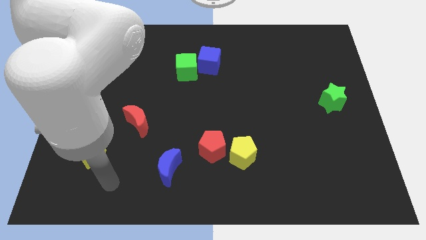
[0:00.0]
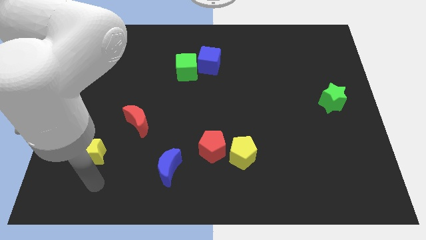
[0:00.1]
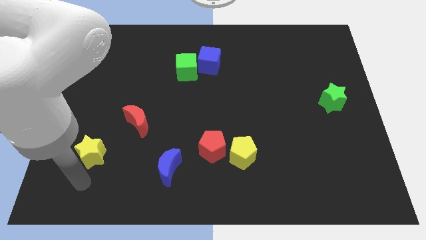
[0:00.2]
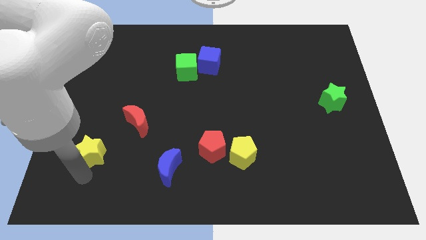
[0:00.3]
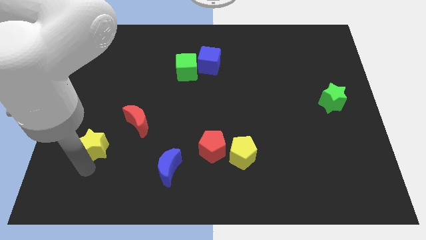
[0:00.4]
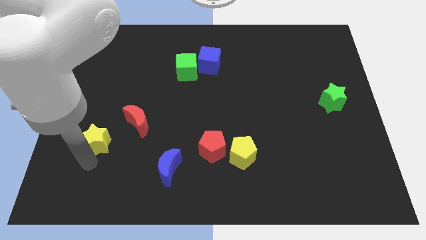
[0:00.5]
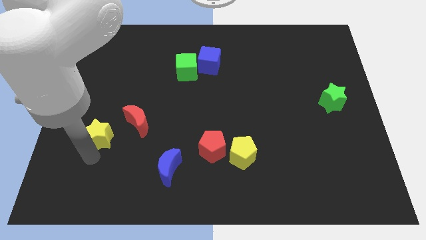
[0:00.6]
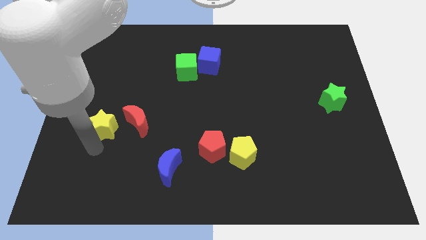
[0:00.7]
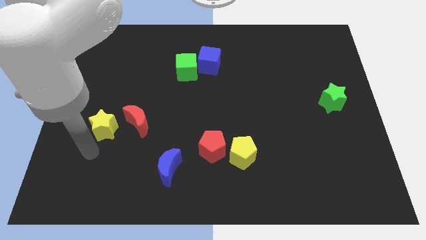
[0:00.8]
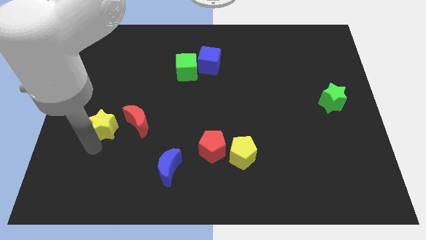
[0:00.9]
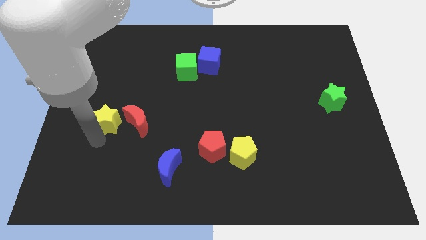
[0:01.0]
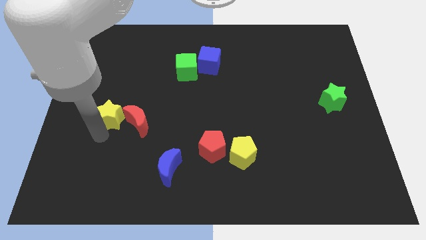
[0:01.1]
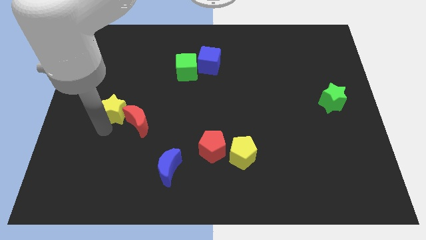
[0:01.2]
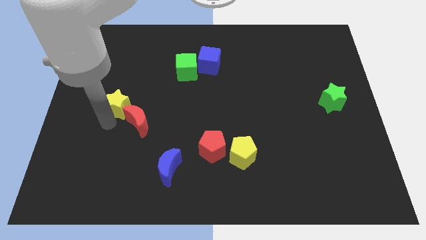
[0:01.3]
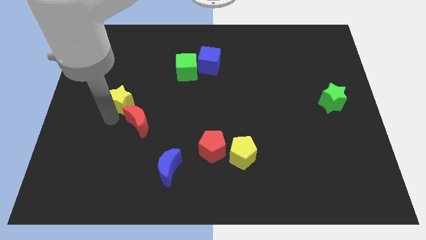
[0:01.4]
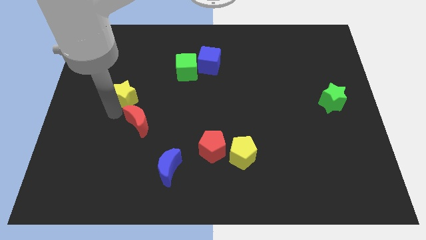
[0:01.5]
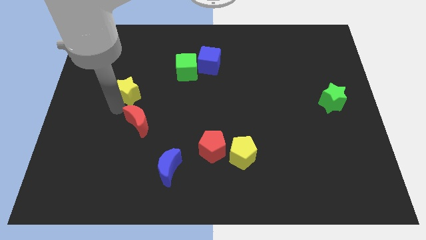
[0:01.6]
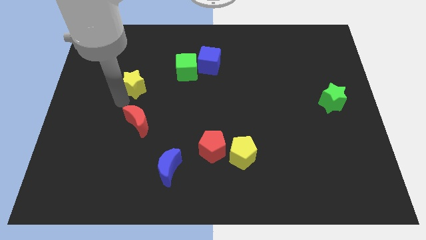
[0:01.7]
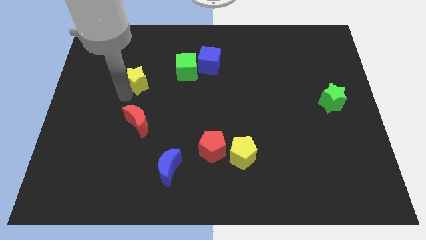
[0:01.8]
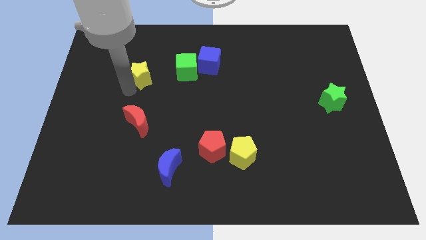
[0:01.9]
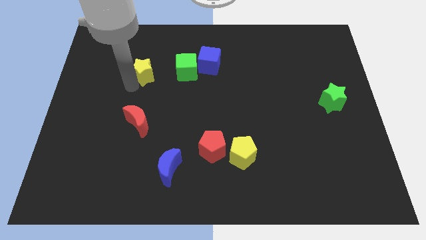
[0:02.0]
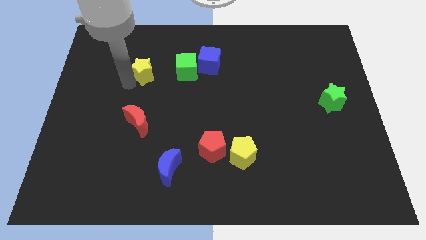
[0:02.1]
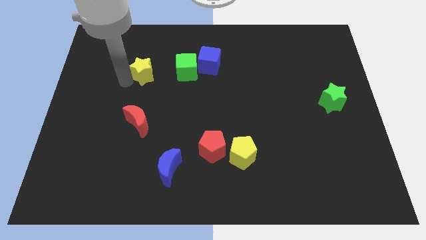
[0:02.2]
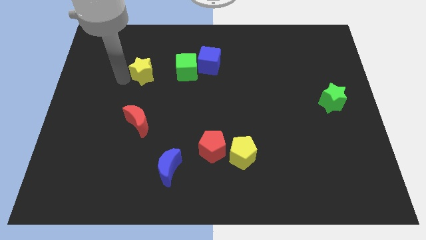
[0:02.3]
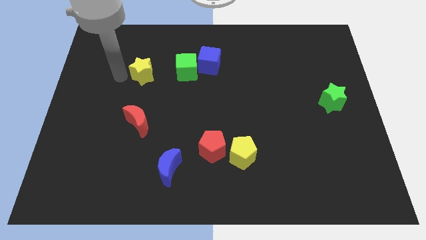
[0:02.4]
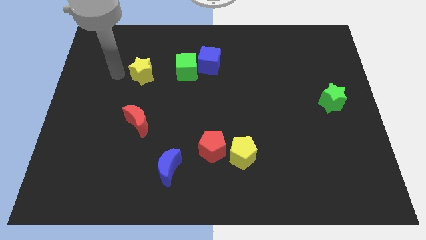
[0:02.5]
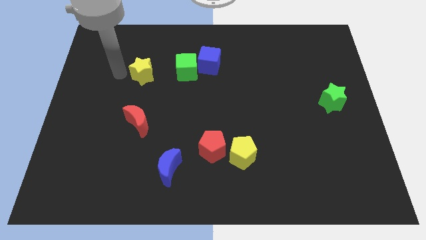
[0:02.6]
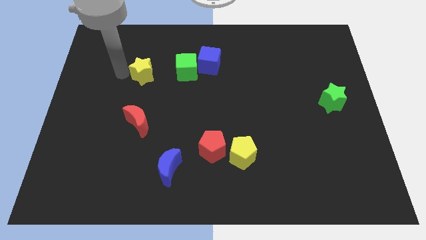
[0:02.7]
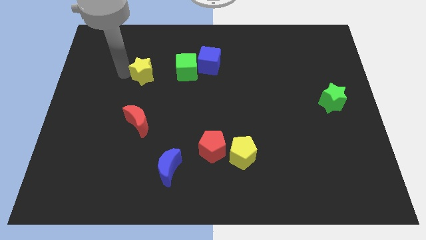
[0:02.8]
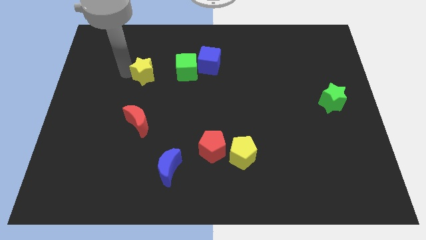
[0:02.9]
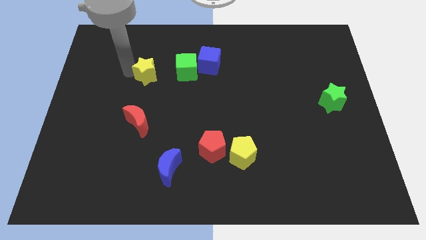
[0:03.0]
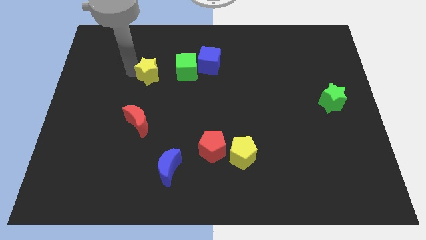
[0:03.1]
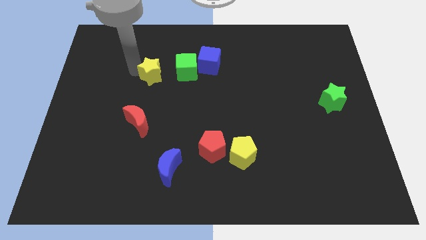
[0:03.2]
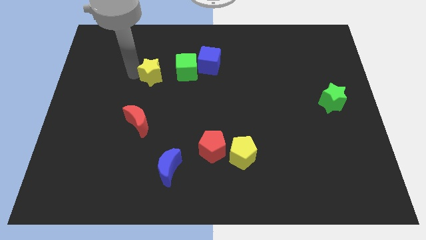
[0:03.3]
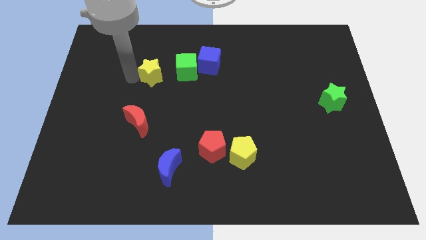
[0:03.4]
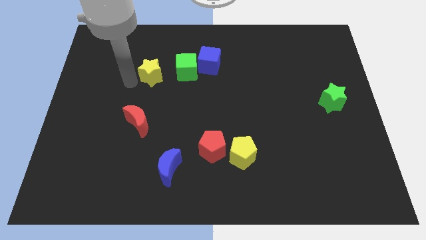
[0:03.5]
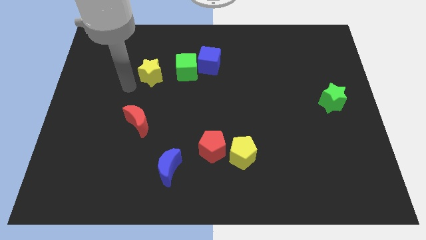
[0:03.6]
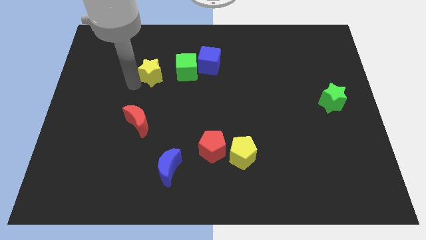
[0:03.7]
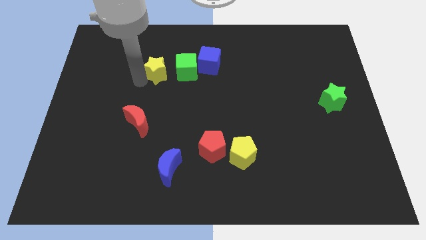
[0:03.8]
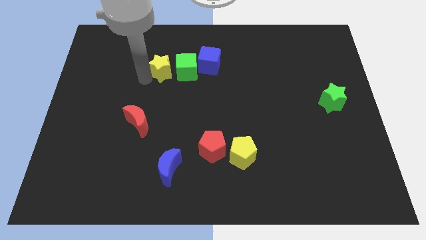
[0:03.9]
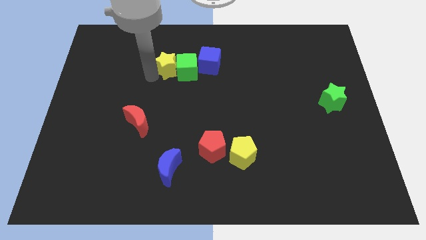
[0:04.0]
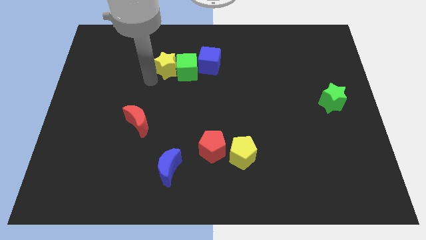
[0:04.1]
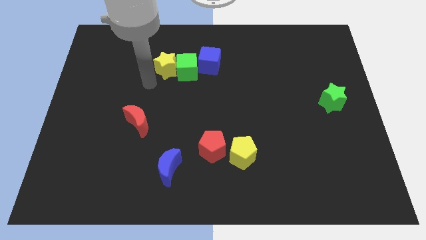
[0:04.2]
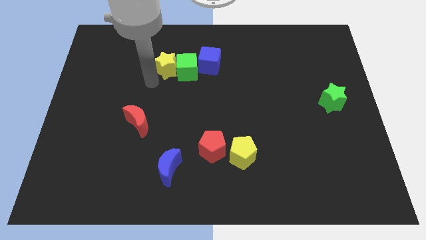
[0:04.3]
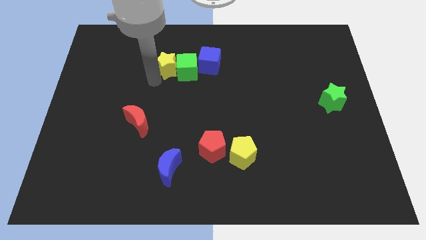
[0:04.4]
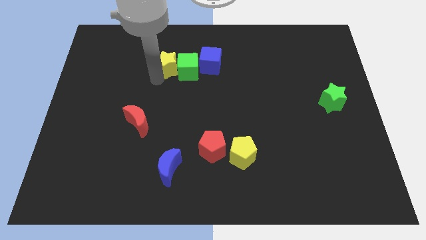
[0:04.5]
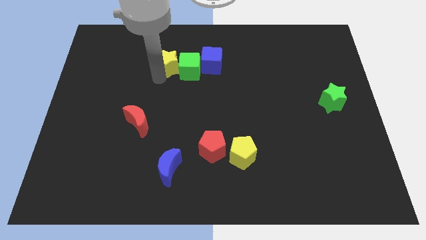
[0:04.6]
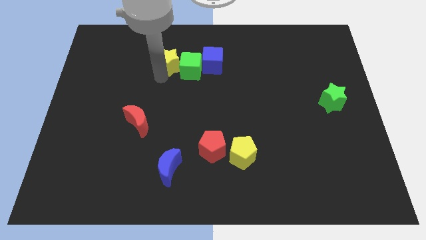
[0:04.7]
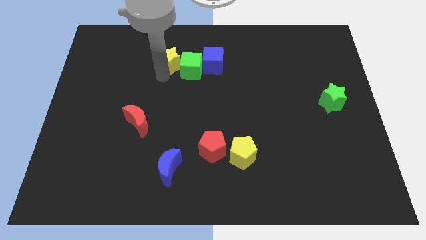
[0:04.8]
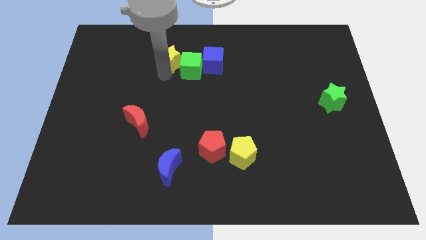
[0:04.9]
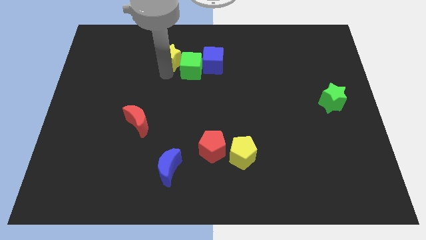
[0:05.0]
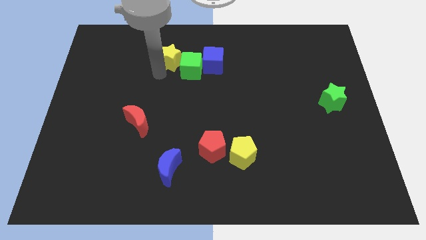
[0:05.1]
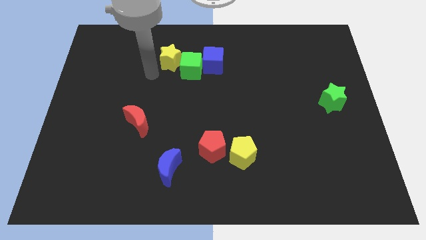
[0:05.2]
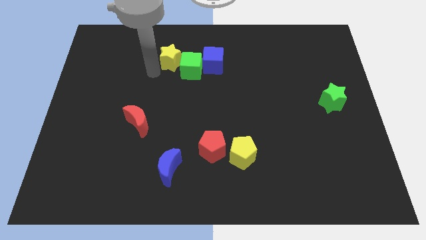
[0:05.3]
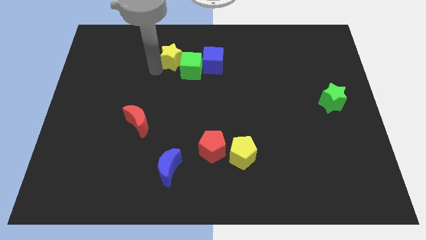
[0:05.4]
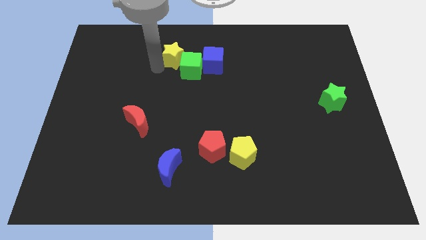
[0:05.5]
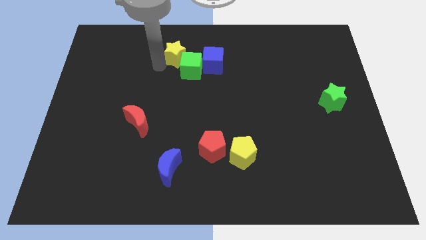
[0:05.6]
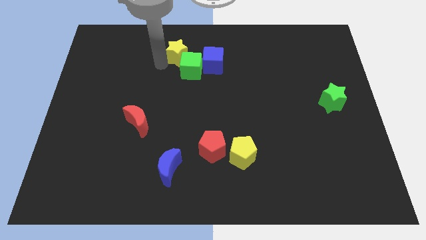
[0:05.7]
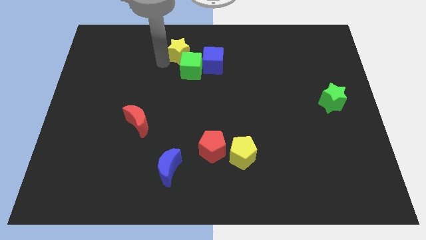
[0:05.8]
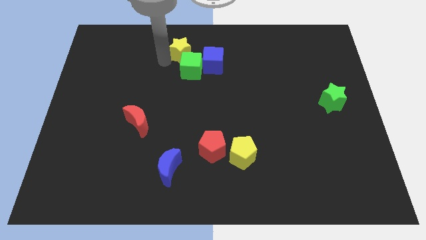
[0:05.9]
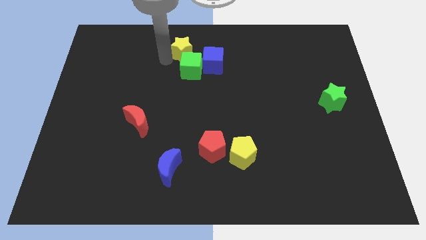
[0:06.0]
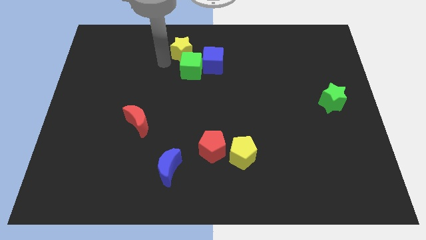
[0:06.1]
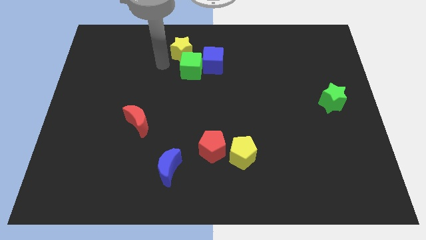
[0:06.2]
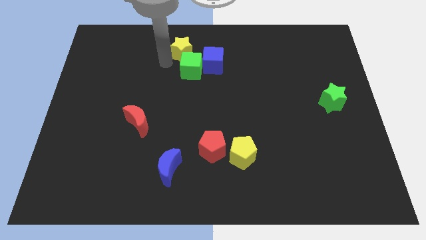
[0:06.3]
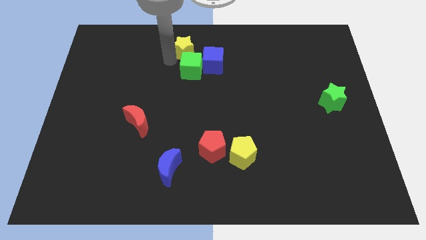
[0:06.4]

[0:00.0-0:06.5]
put the yellow star to the towards your base

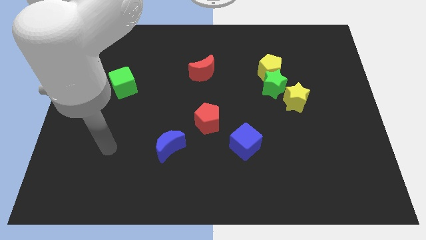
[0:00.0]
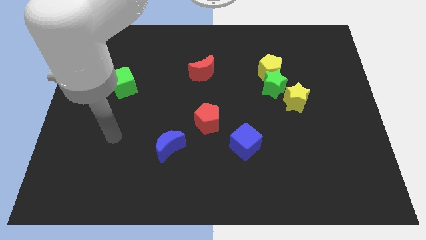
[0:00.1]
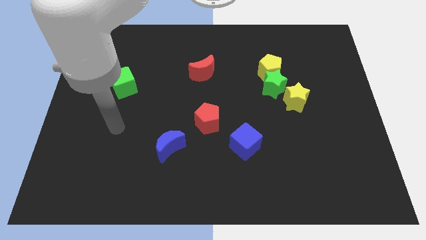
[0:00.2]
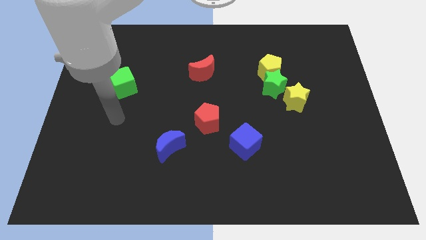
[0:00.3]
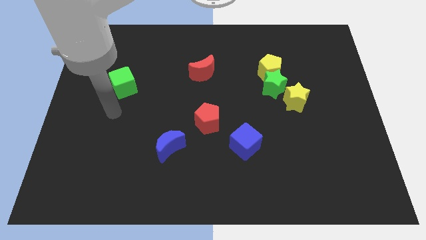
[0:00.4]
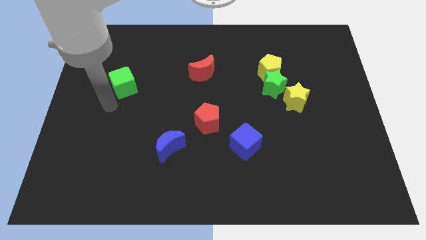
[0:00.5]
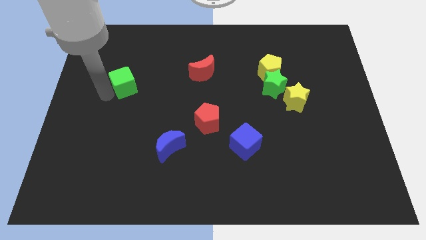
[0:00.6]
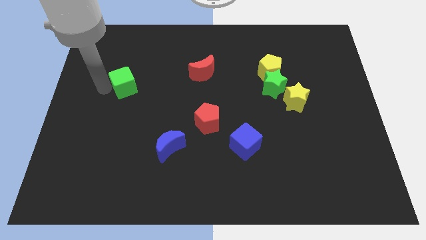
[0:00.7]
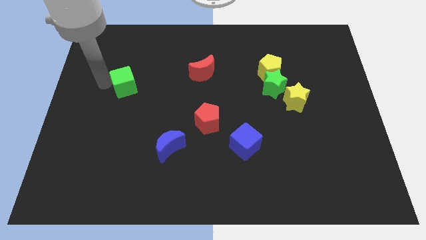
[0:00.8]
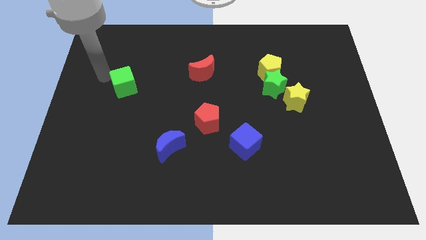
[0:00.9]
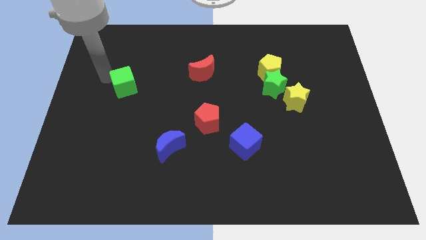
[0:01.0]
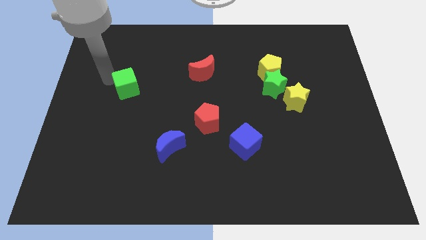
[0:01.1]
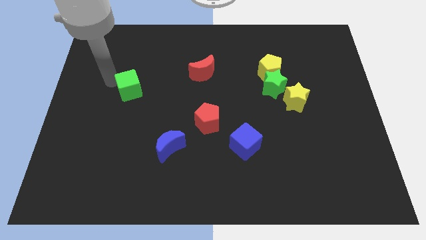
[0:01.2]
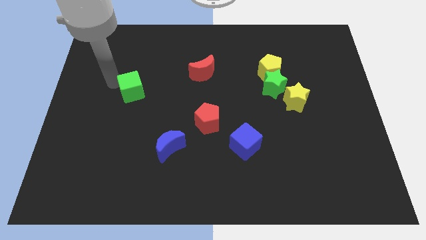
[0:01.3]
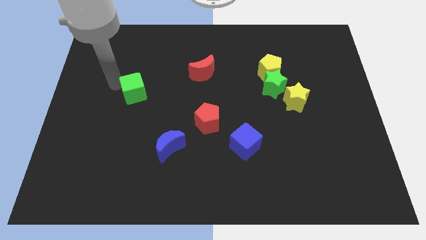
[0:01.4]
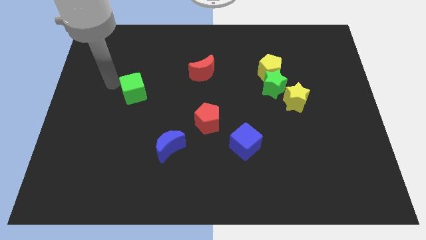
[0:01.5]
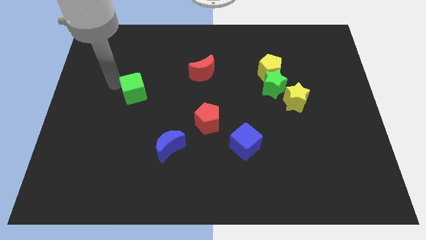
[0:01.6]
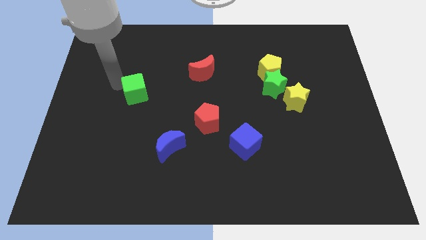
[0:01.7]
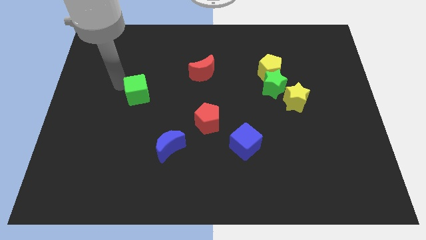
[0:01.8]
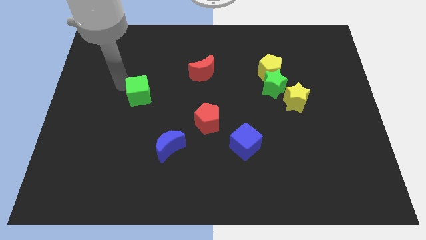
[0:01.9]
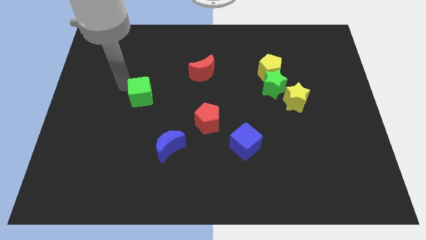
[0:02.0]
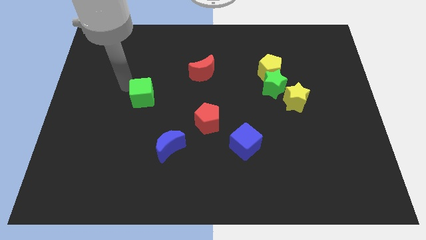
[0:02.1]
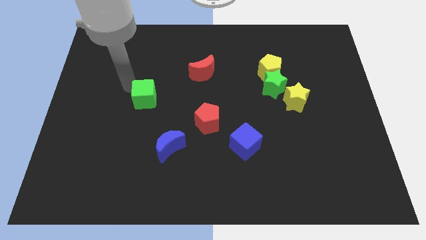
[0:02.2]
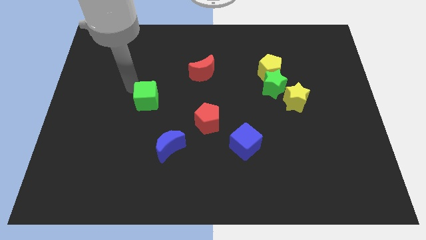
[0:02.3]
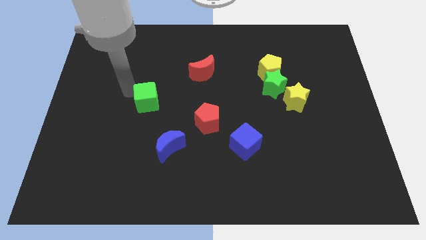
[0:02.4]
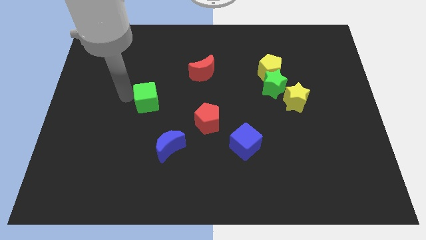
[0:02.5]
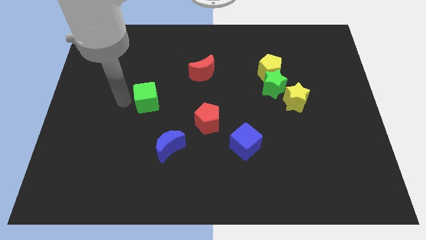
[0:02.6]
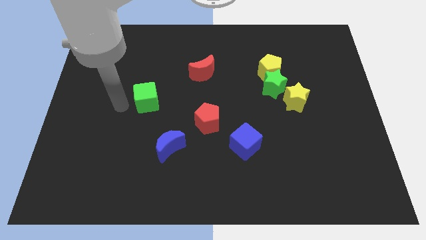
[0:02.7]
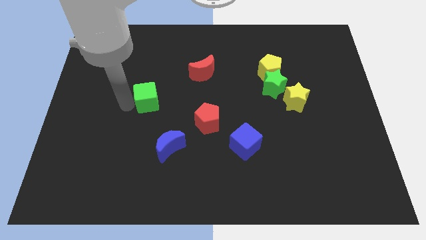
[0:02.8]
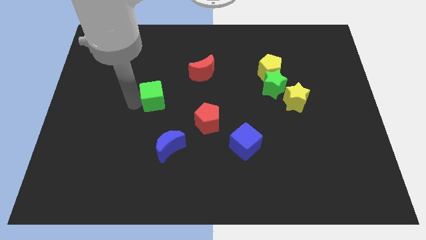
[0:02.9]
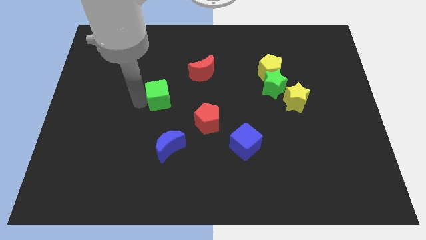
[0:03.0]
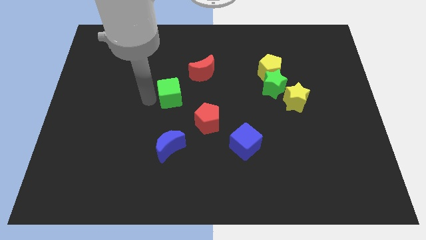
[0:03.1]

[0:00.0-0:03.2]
slide the green cube to the middle
